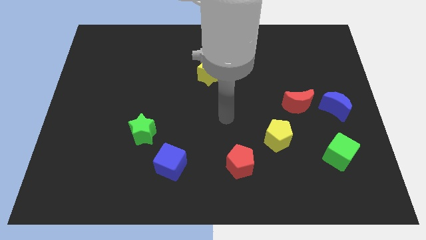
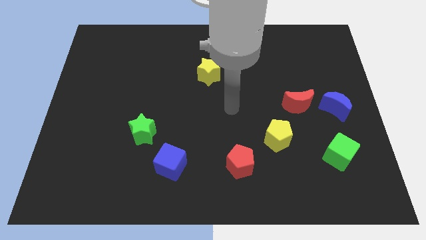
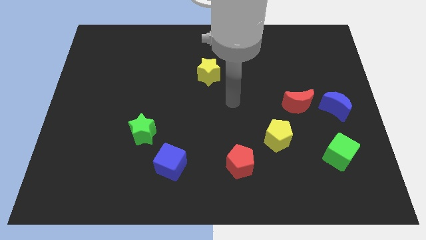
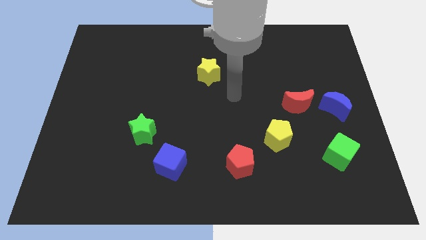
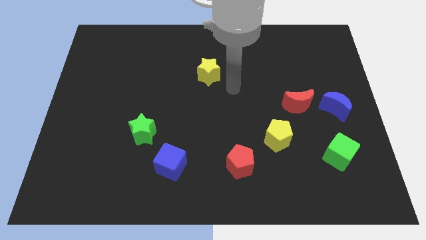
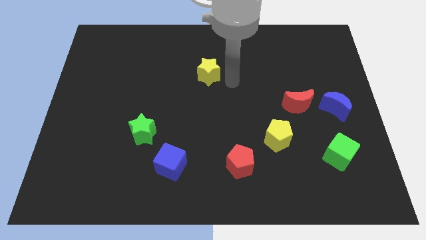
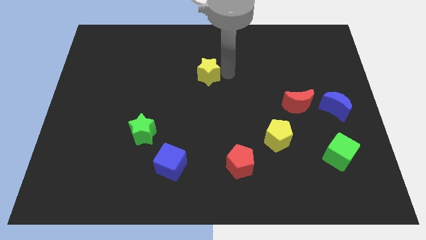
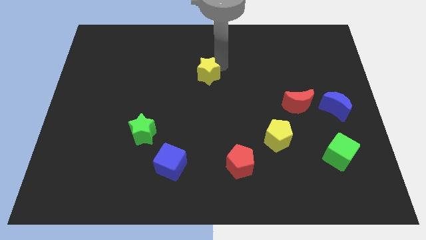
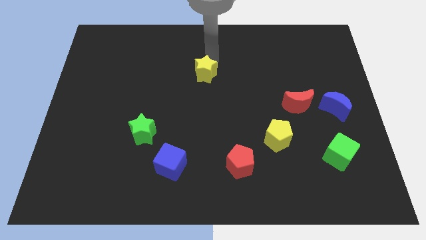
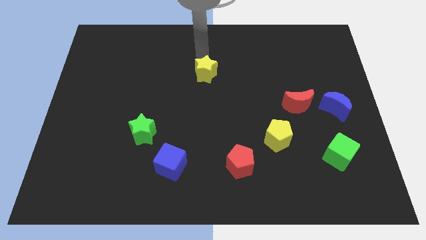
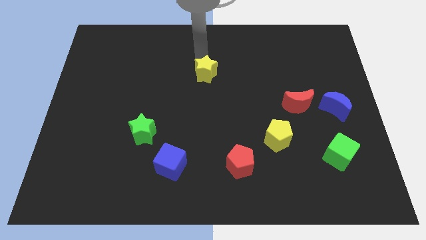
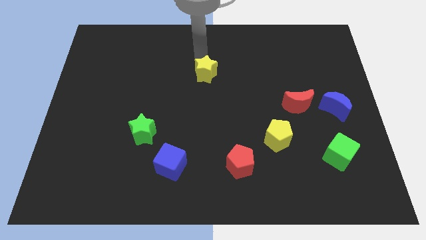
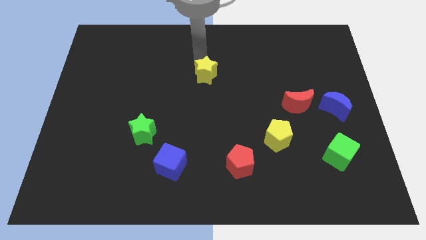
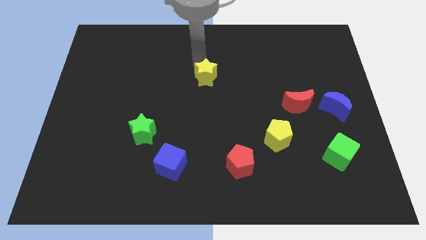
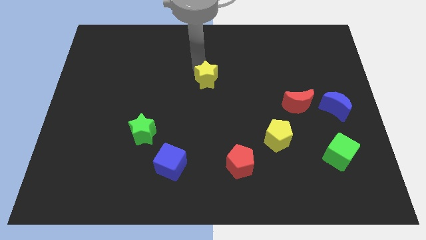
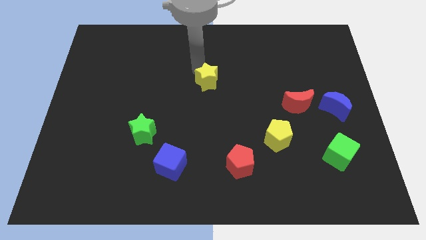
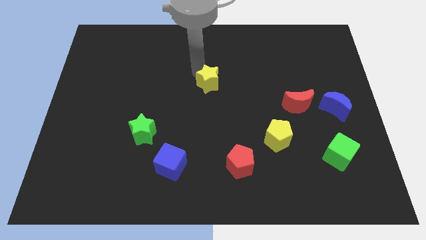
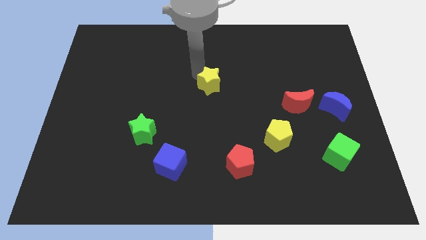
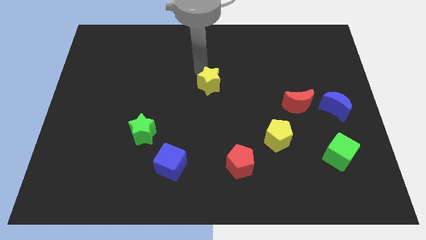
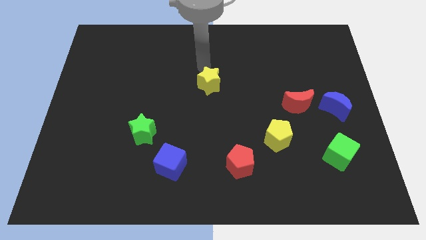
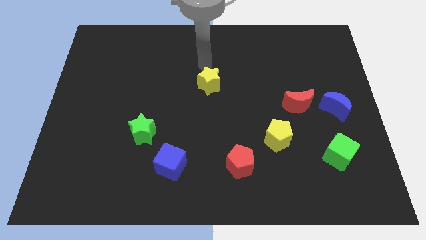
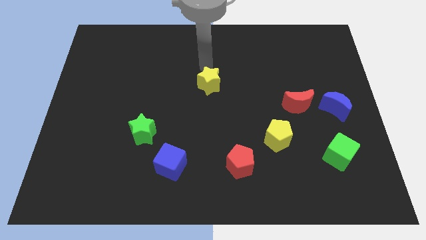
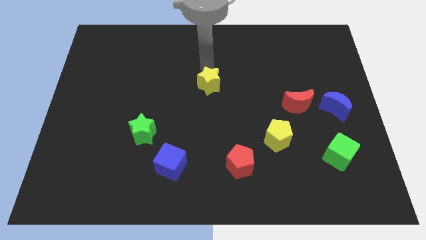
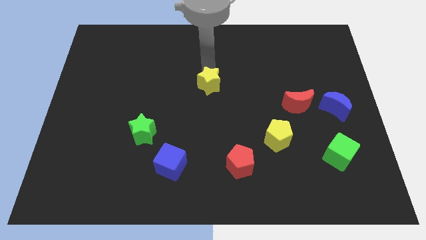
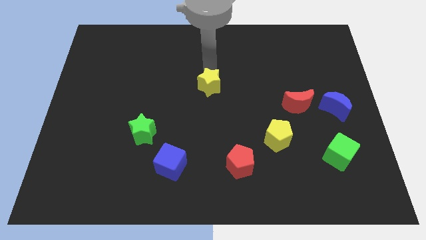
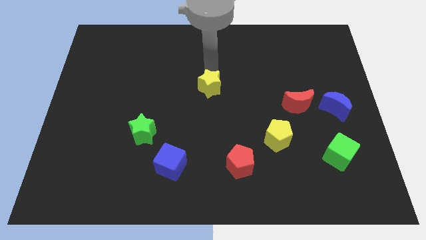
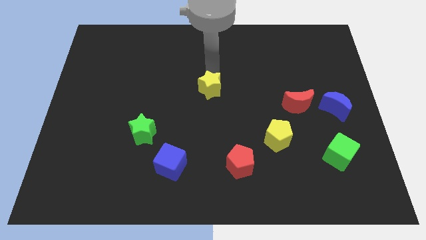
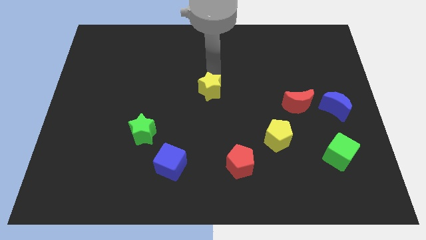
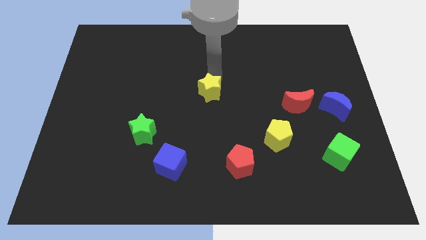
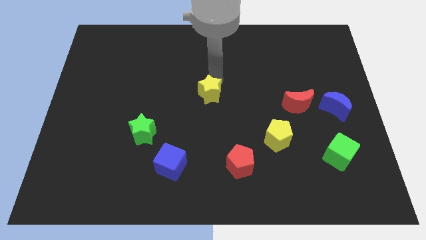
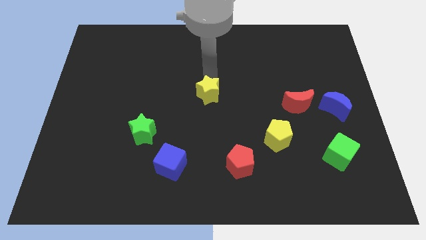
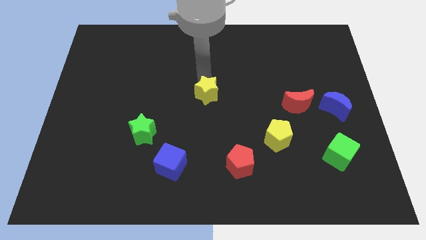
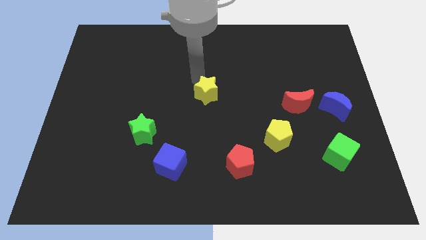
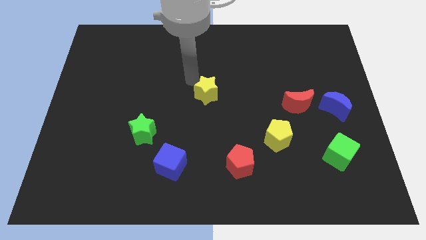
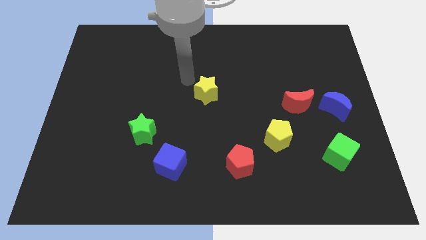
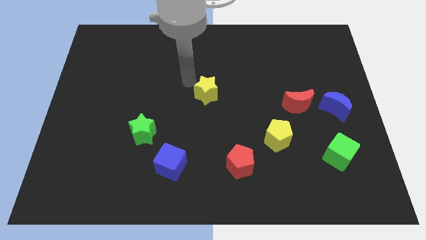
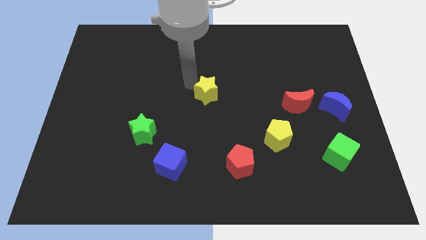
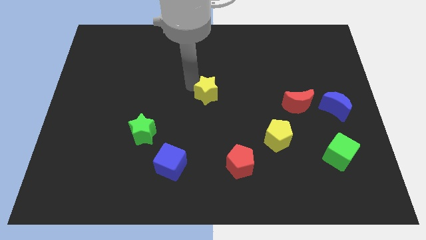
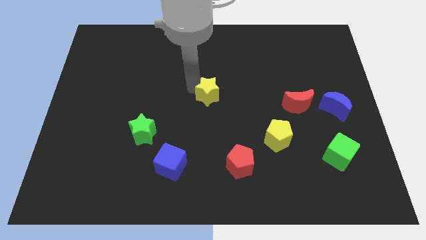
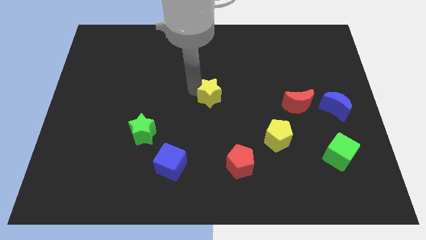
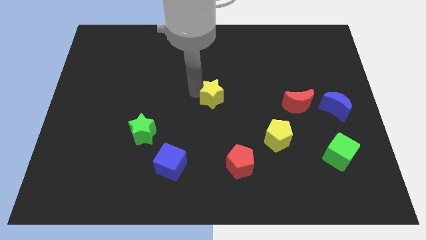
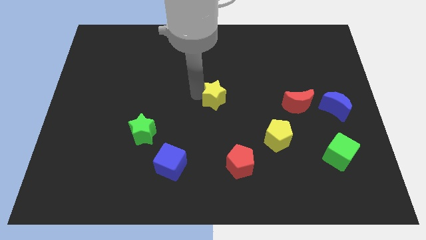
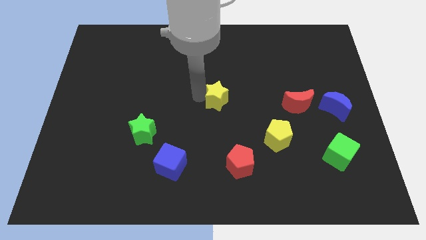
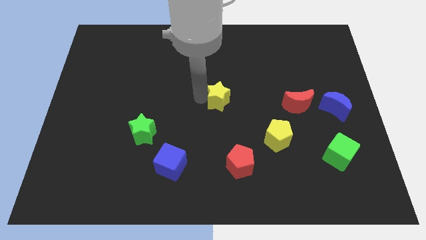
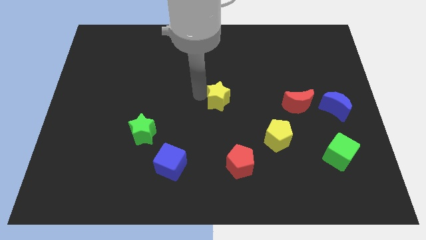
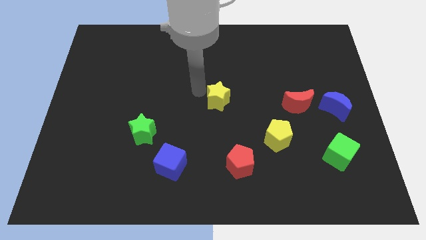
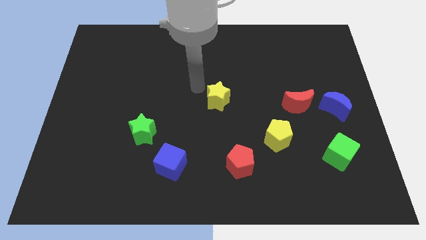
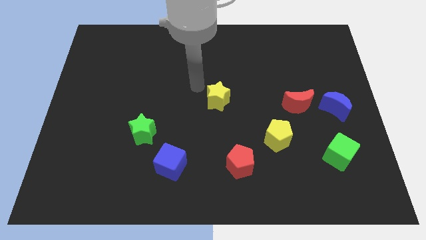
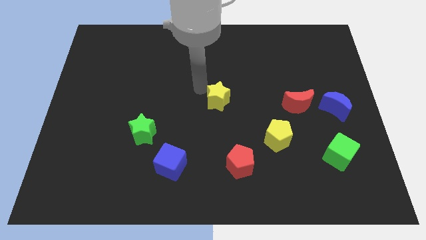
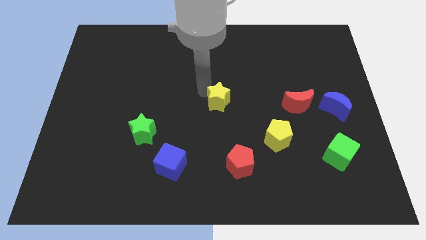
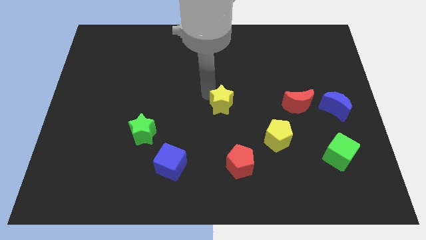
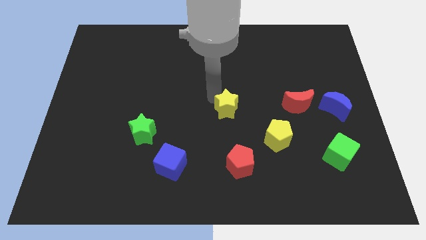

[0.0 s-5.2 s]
put the yellow star to the top side of the red pentagon

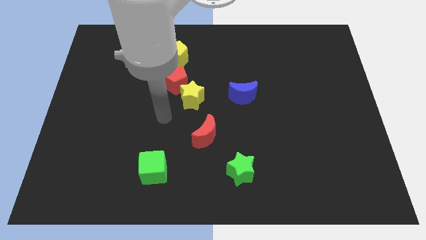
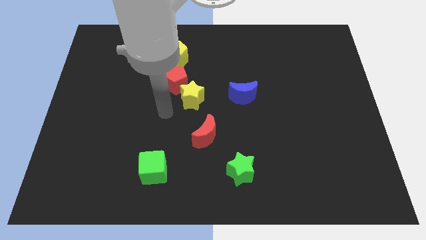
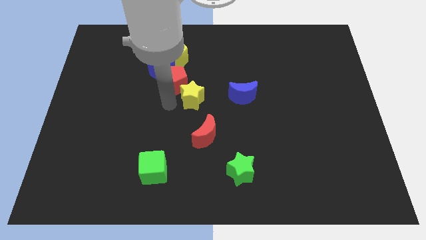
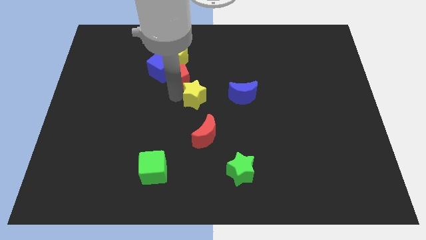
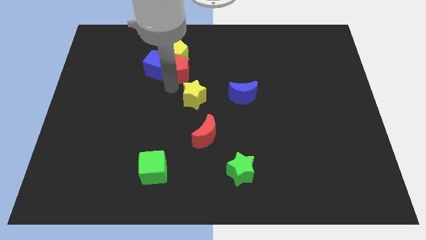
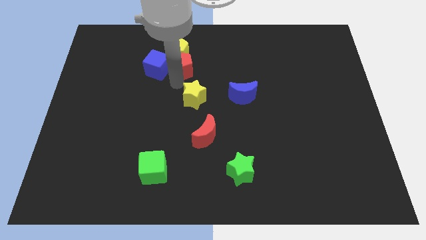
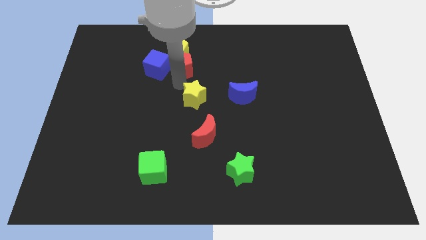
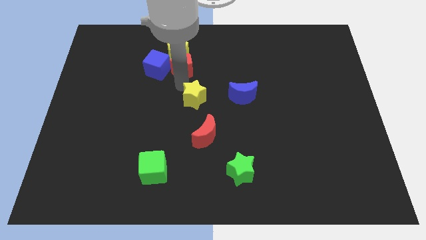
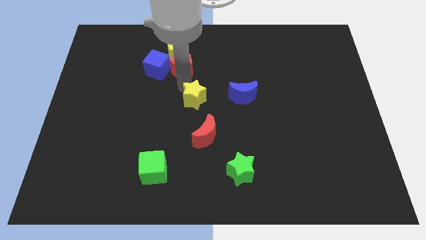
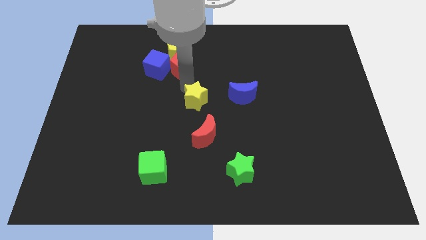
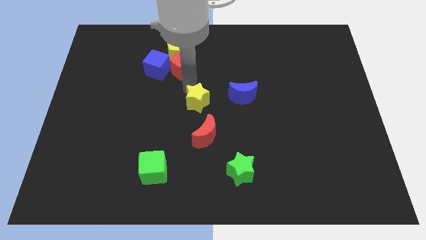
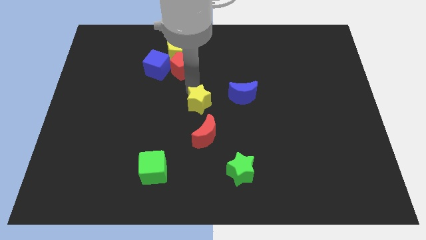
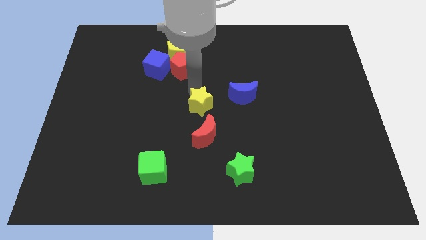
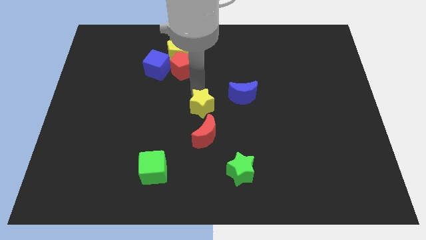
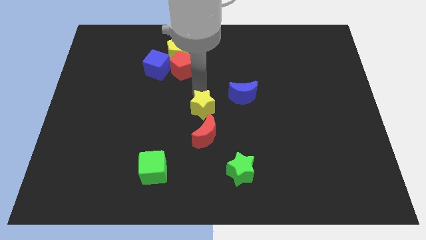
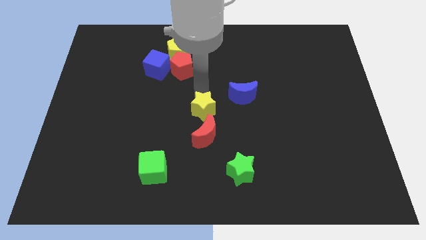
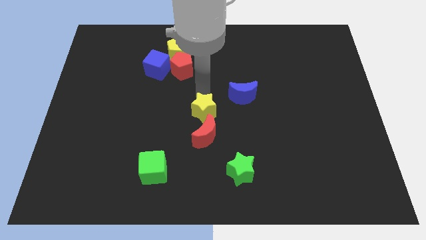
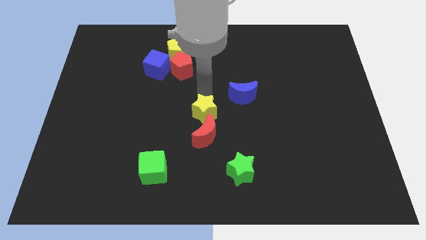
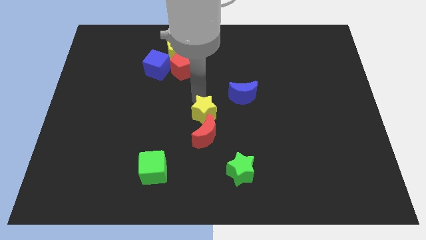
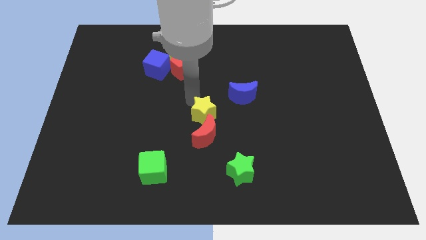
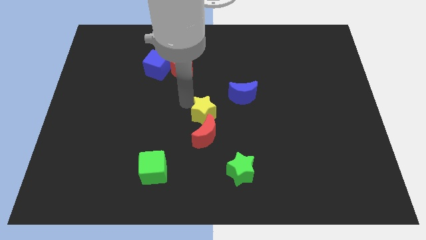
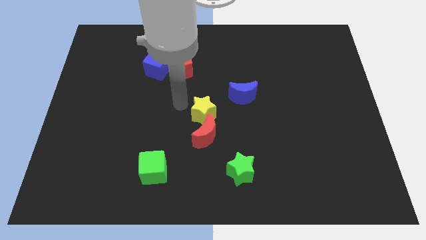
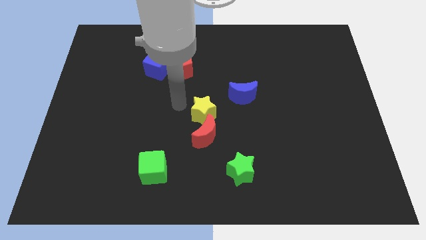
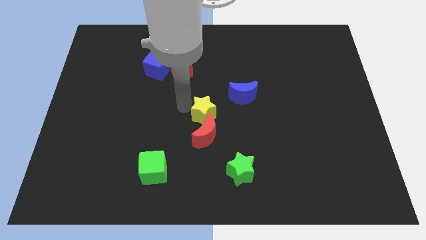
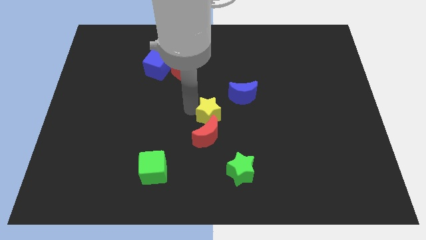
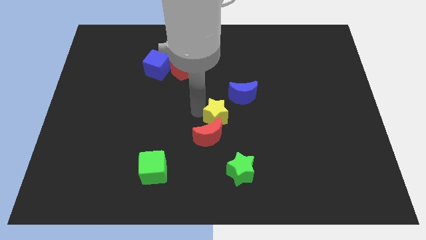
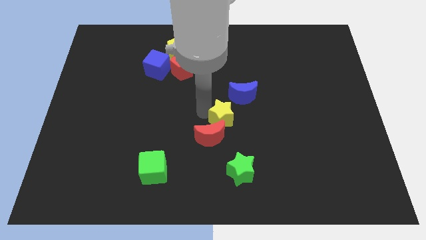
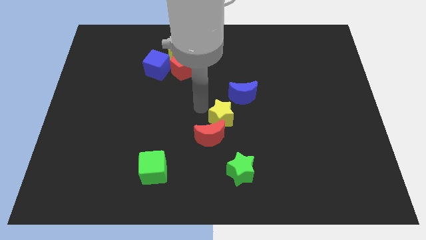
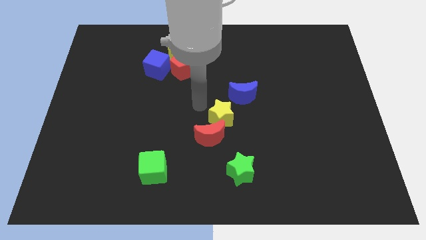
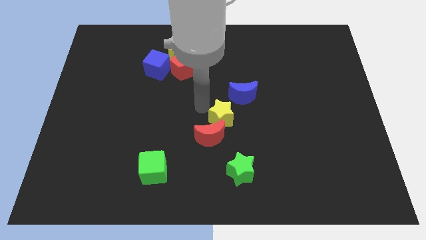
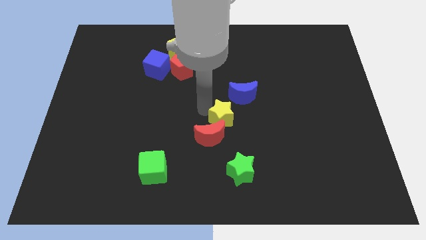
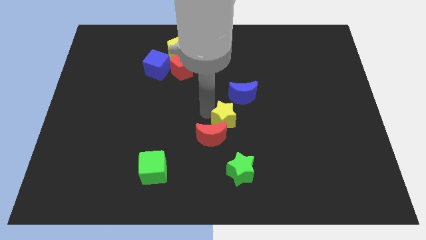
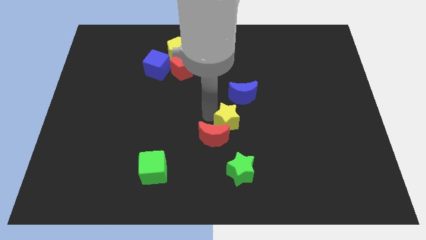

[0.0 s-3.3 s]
put the yellow star right of the red moon
